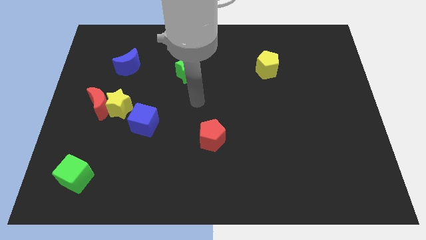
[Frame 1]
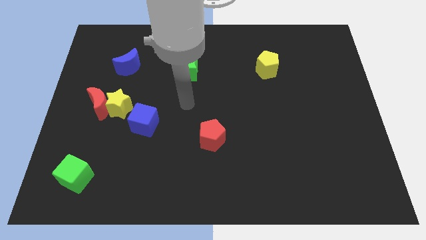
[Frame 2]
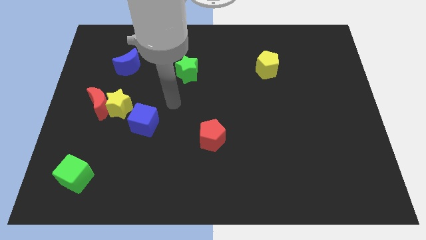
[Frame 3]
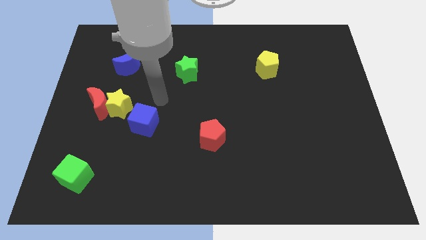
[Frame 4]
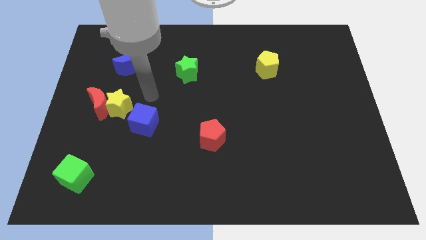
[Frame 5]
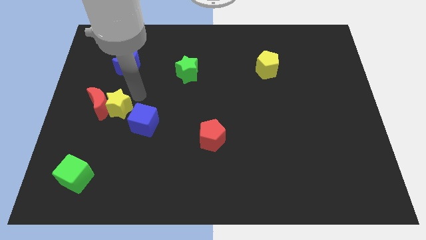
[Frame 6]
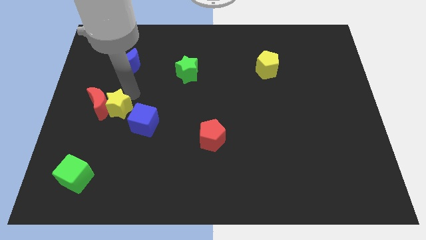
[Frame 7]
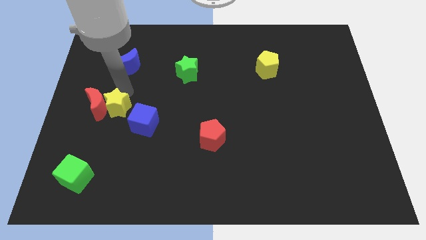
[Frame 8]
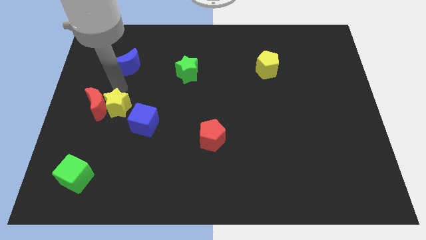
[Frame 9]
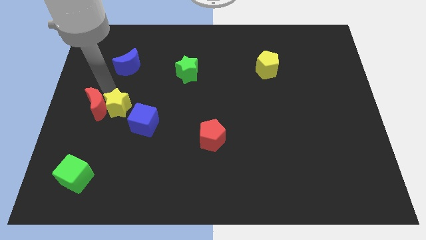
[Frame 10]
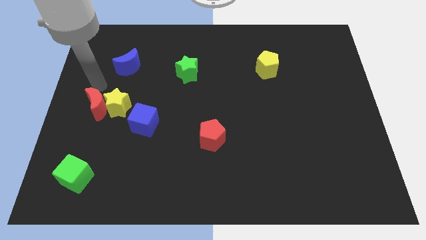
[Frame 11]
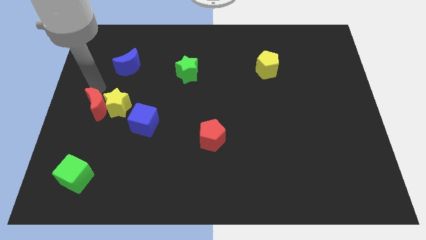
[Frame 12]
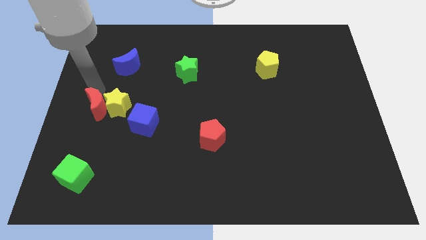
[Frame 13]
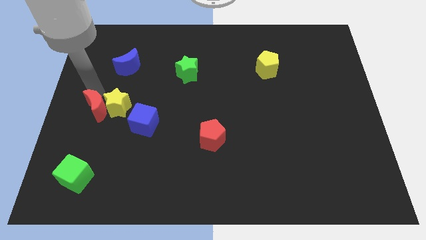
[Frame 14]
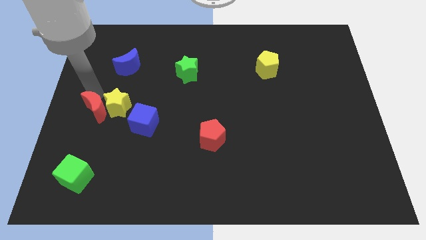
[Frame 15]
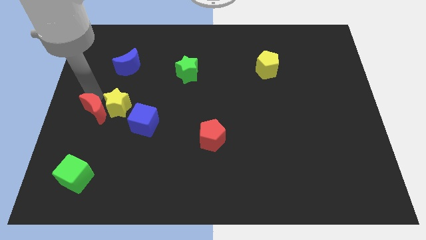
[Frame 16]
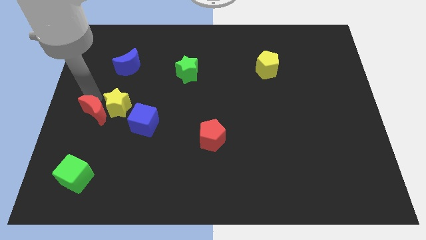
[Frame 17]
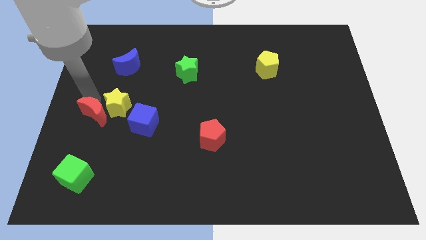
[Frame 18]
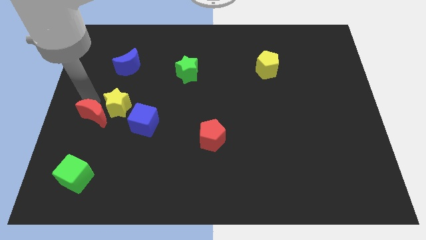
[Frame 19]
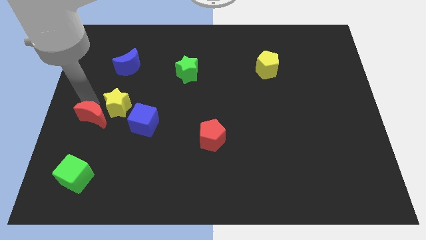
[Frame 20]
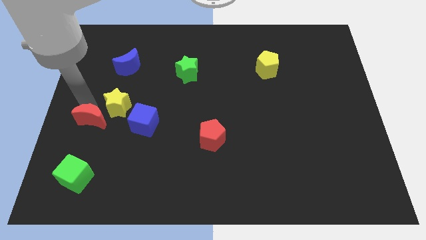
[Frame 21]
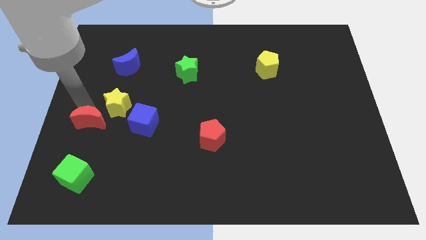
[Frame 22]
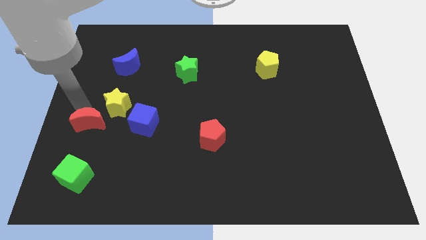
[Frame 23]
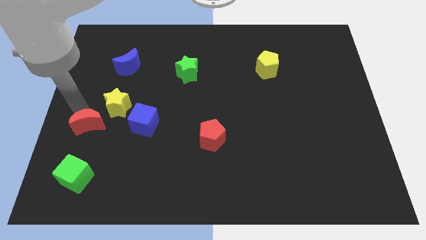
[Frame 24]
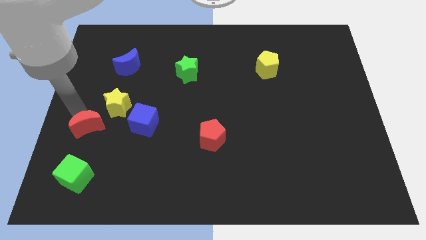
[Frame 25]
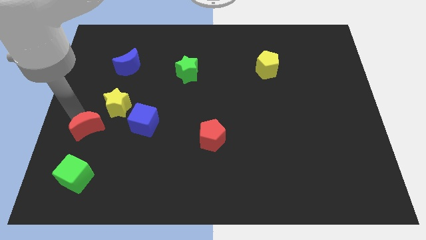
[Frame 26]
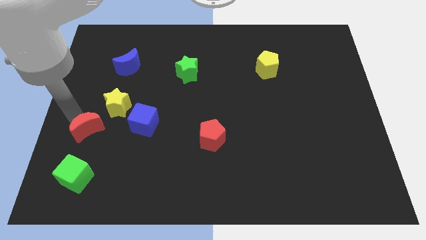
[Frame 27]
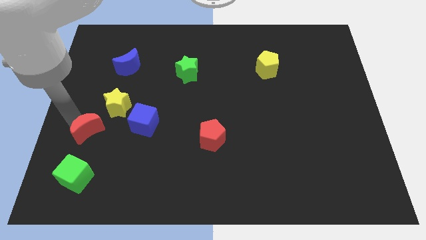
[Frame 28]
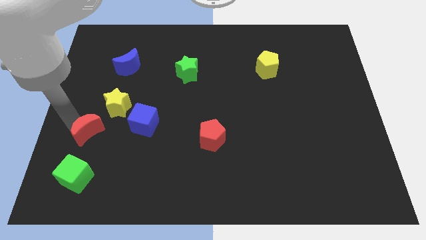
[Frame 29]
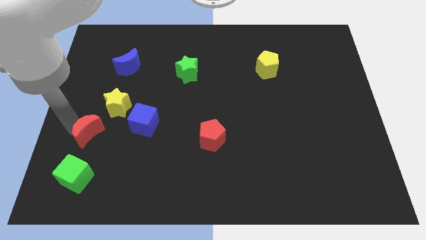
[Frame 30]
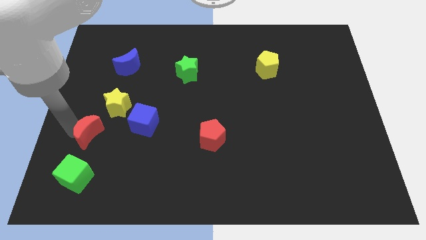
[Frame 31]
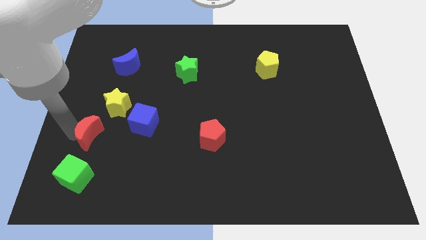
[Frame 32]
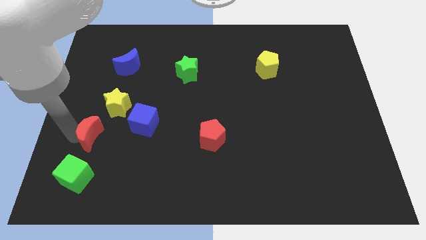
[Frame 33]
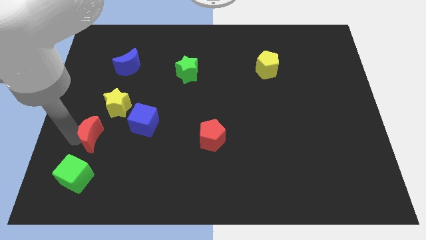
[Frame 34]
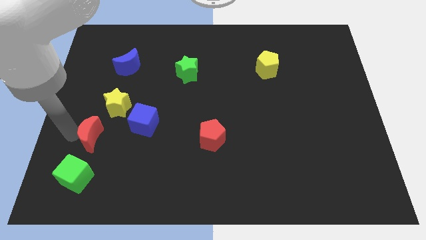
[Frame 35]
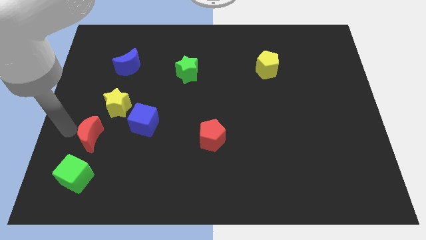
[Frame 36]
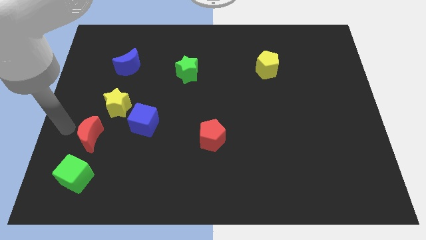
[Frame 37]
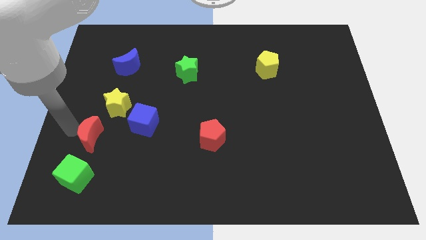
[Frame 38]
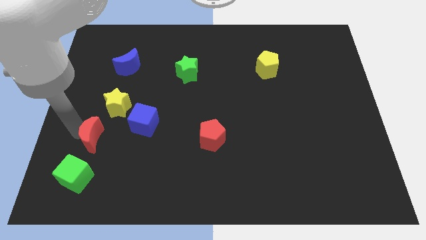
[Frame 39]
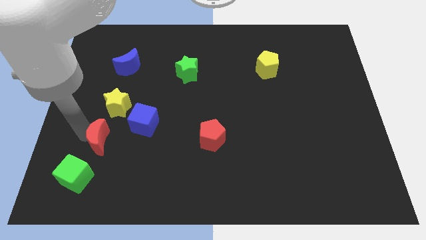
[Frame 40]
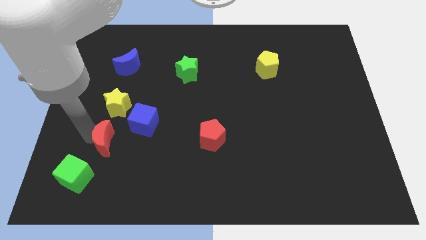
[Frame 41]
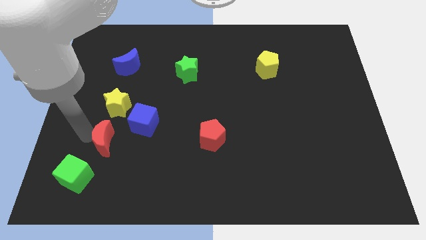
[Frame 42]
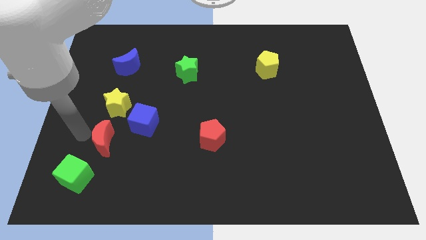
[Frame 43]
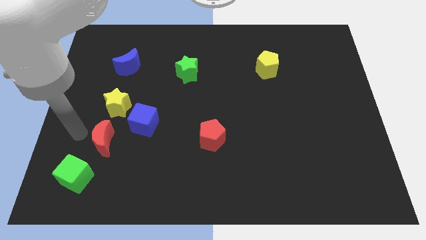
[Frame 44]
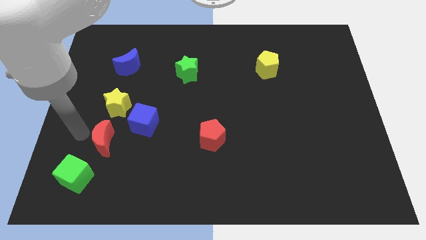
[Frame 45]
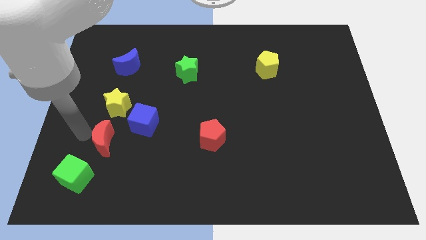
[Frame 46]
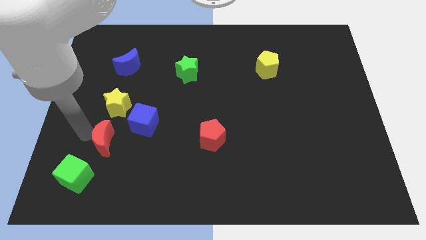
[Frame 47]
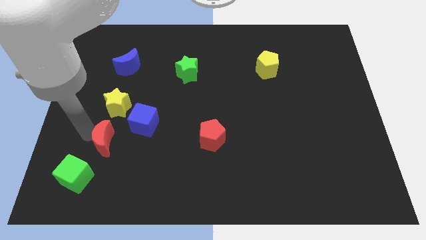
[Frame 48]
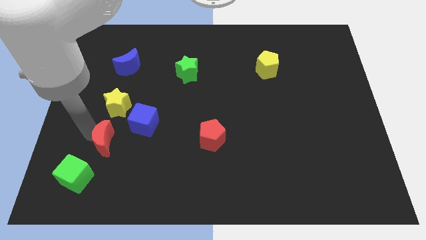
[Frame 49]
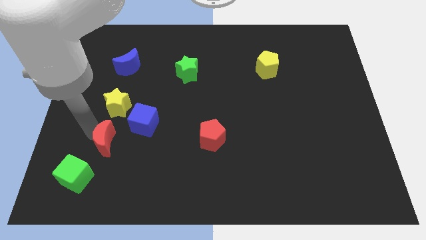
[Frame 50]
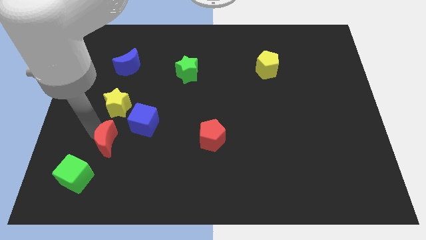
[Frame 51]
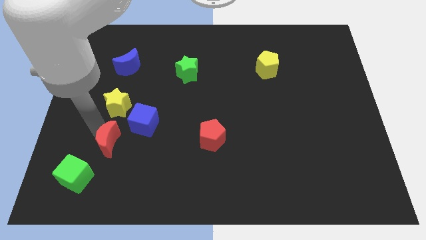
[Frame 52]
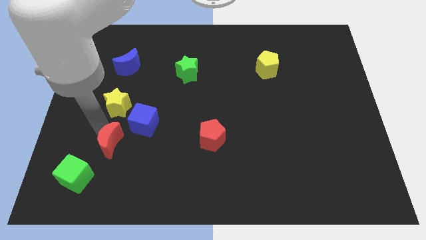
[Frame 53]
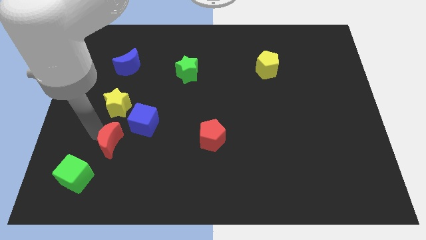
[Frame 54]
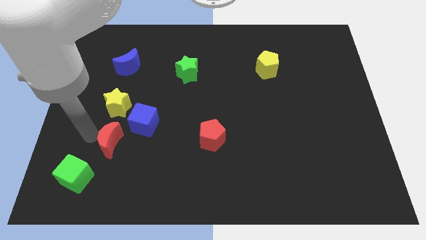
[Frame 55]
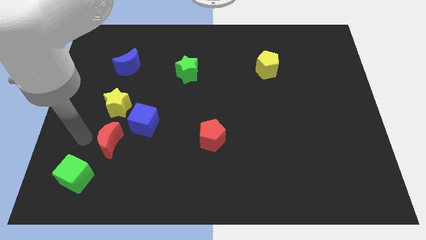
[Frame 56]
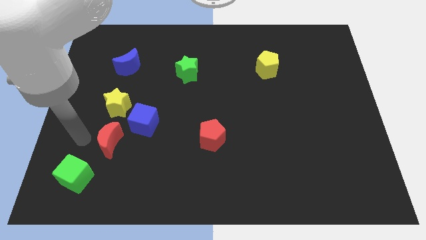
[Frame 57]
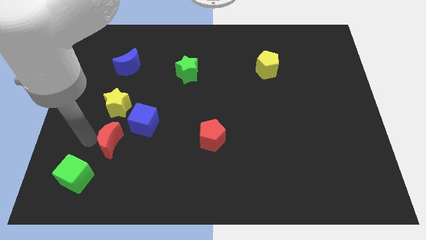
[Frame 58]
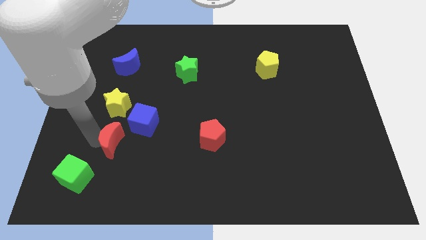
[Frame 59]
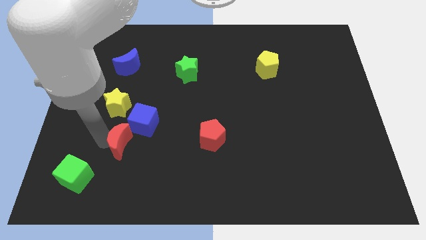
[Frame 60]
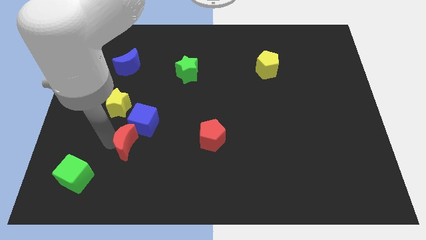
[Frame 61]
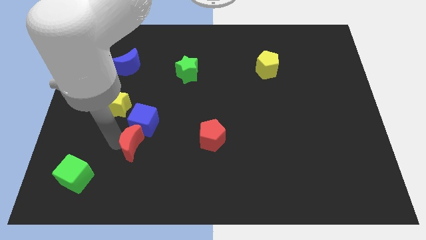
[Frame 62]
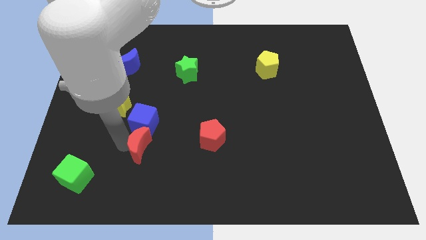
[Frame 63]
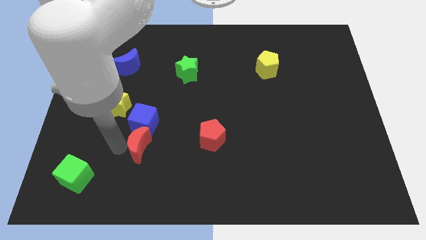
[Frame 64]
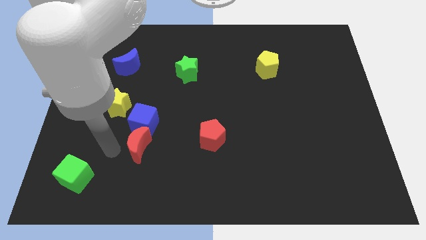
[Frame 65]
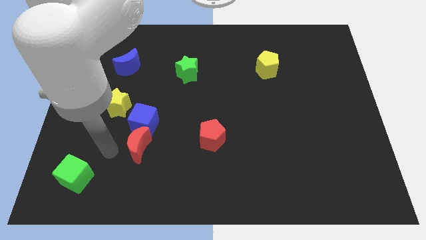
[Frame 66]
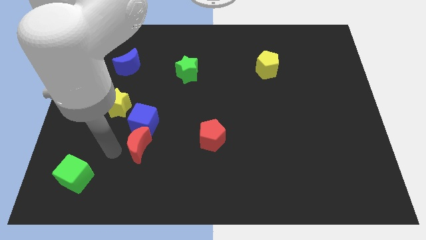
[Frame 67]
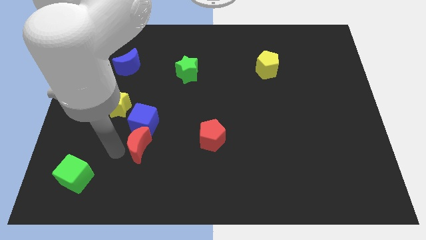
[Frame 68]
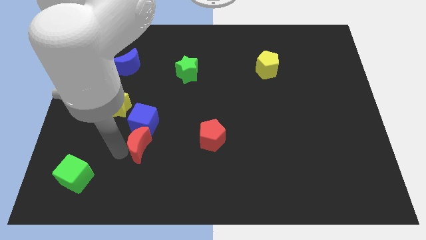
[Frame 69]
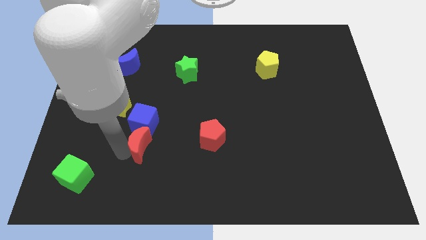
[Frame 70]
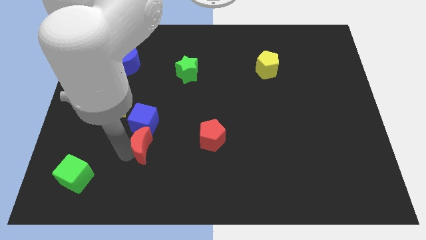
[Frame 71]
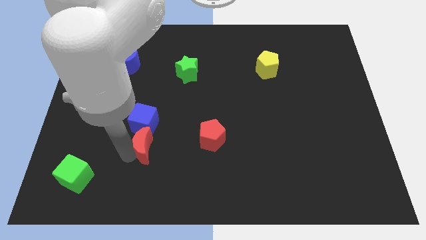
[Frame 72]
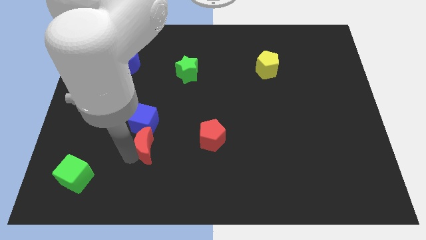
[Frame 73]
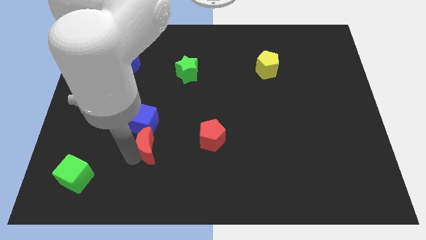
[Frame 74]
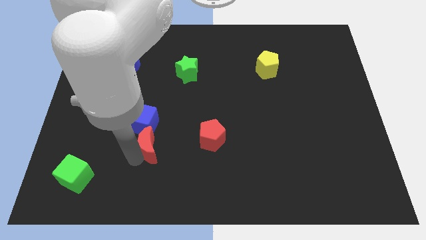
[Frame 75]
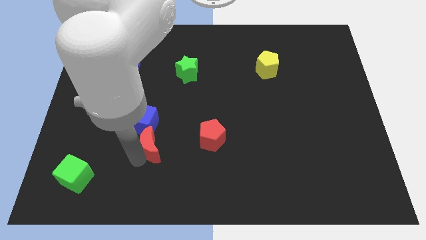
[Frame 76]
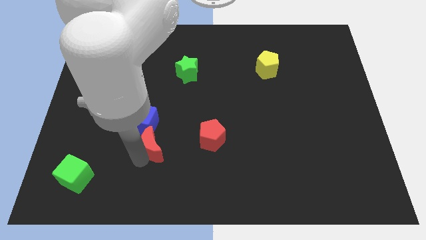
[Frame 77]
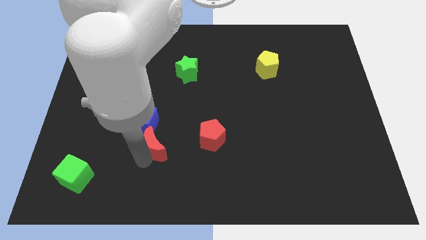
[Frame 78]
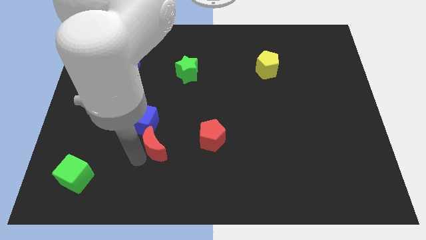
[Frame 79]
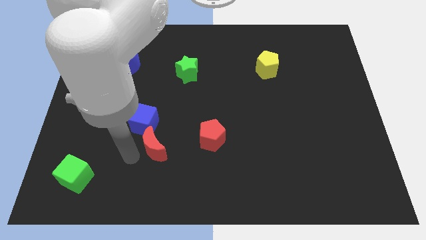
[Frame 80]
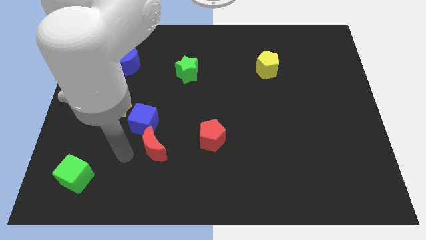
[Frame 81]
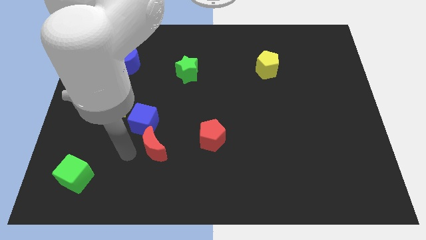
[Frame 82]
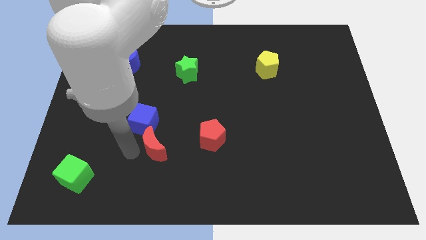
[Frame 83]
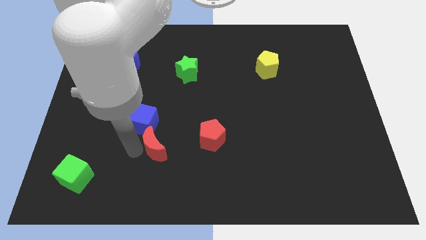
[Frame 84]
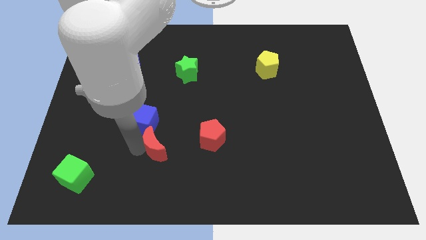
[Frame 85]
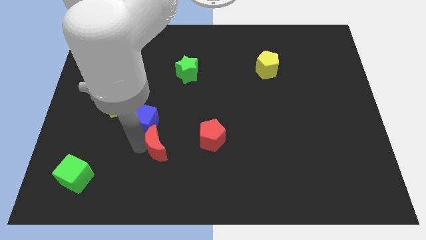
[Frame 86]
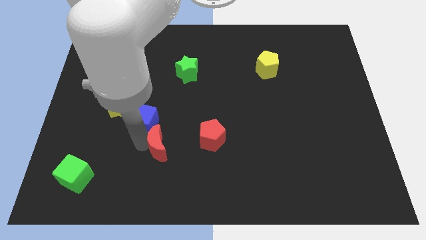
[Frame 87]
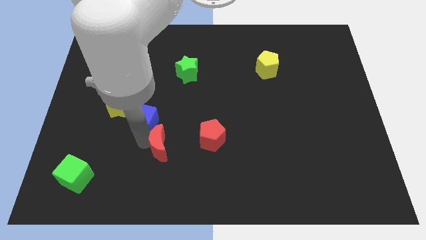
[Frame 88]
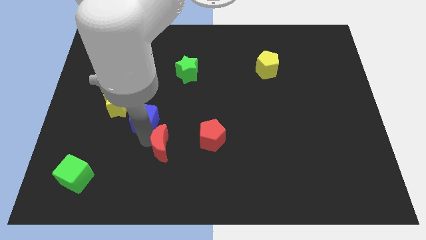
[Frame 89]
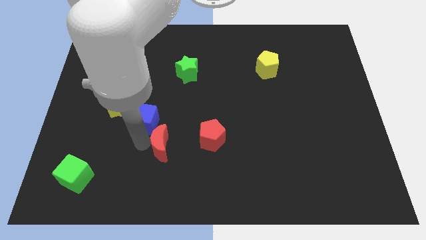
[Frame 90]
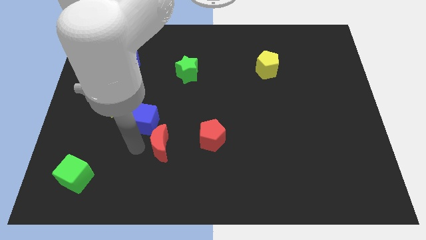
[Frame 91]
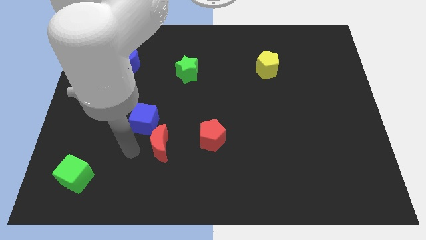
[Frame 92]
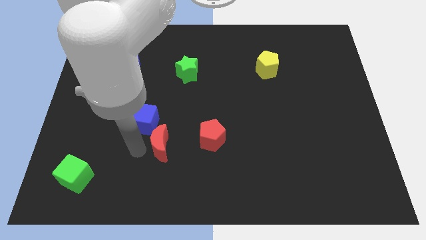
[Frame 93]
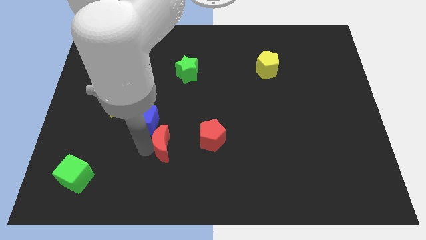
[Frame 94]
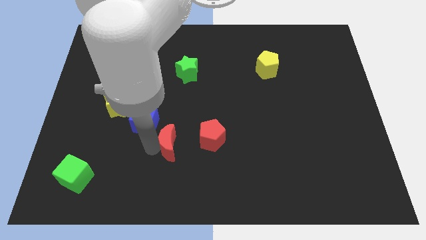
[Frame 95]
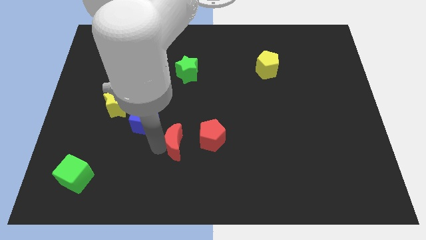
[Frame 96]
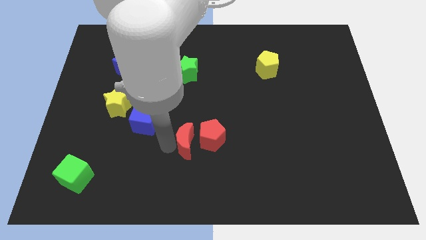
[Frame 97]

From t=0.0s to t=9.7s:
put the red moon next to the red pentagon
